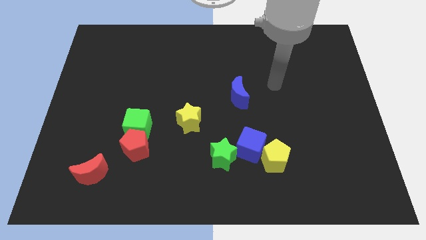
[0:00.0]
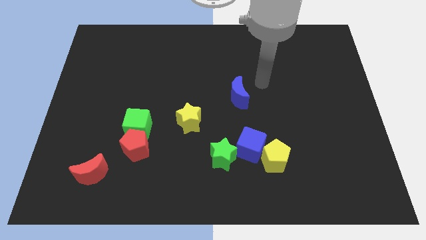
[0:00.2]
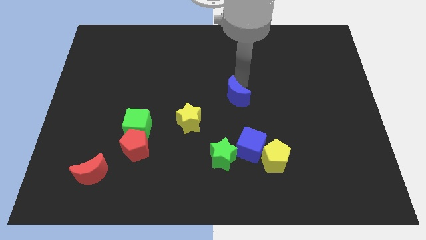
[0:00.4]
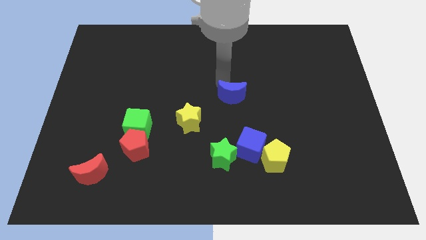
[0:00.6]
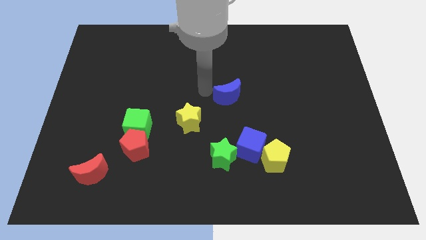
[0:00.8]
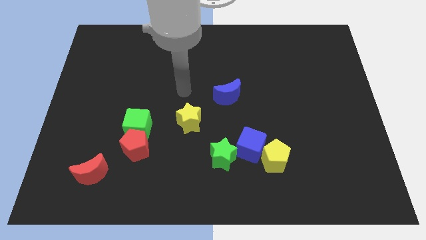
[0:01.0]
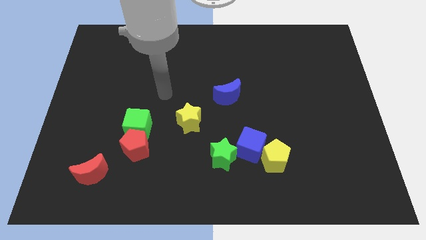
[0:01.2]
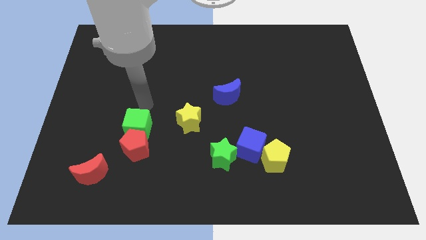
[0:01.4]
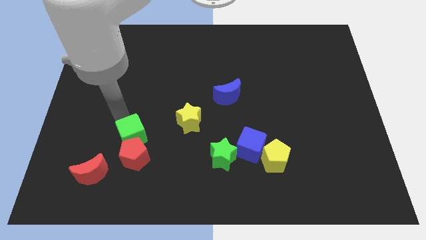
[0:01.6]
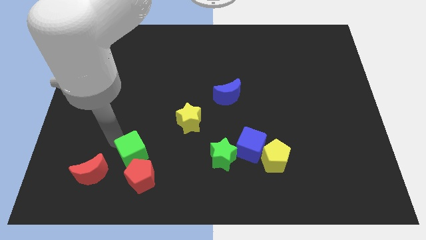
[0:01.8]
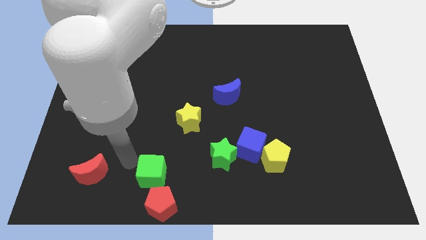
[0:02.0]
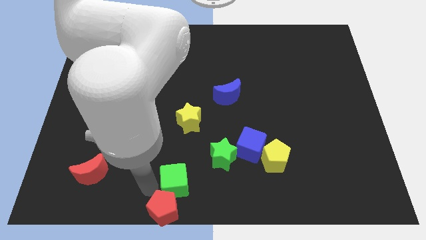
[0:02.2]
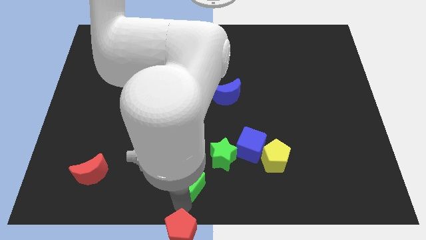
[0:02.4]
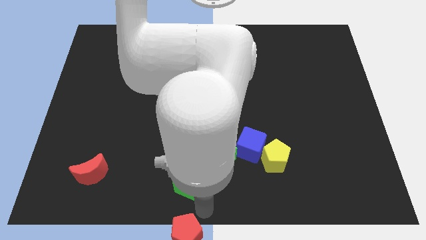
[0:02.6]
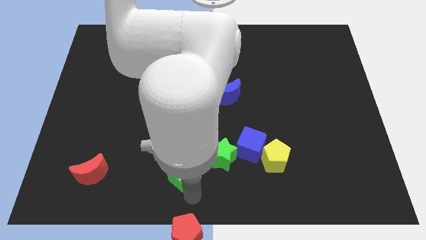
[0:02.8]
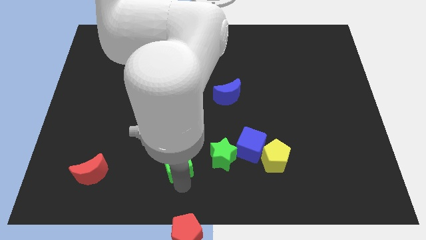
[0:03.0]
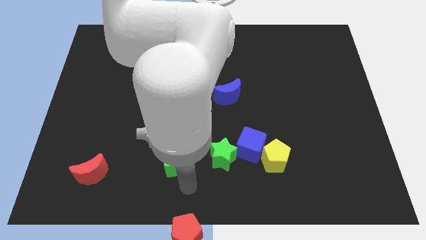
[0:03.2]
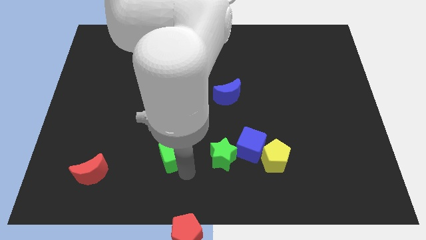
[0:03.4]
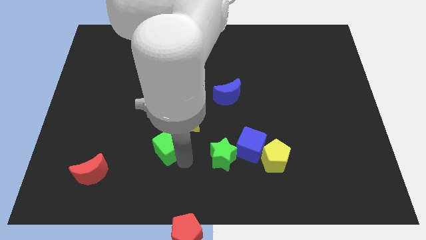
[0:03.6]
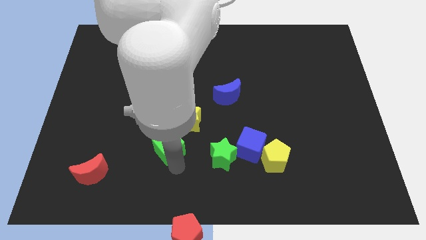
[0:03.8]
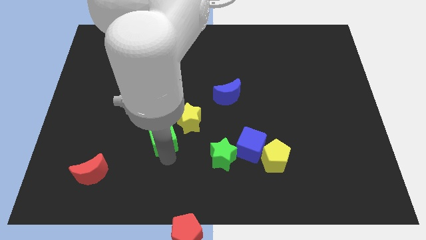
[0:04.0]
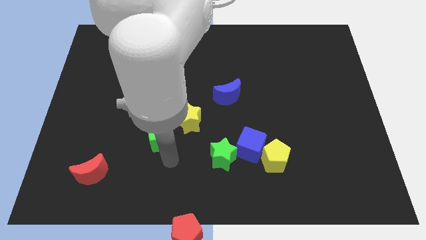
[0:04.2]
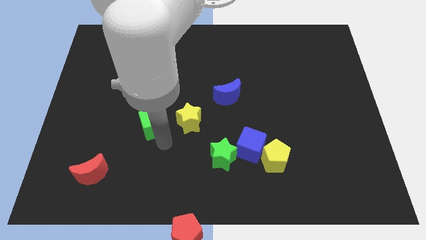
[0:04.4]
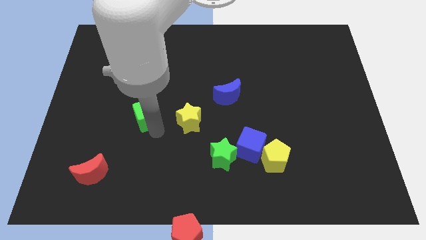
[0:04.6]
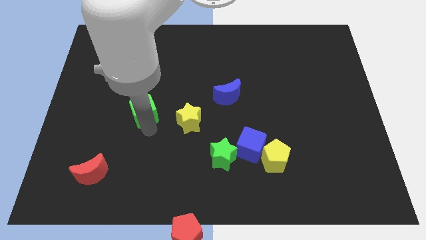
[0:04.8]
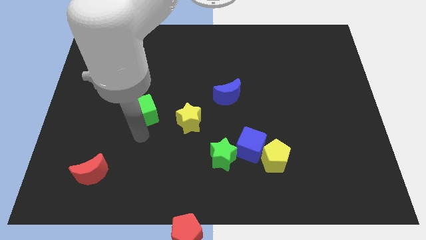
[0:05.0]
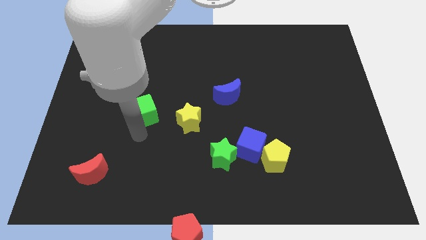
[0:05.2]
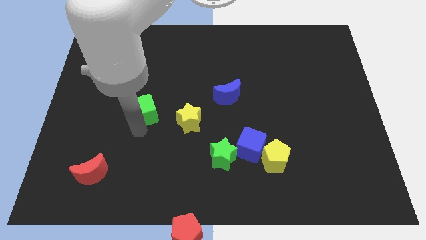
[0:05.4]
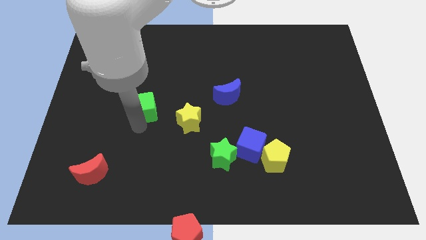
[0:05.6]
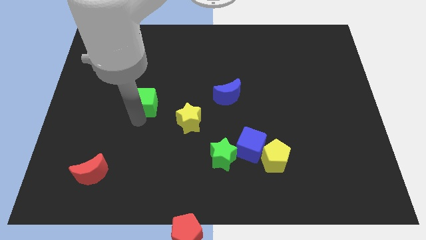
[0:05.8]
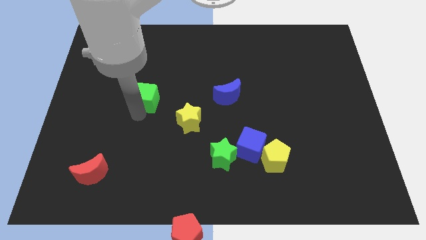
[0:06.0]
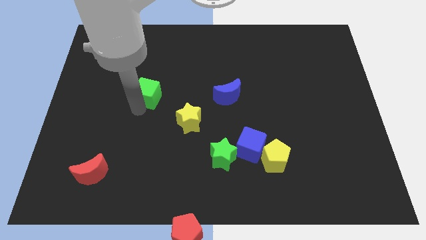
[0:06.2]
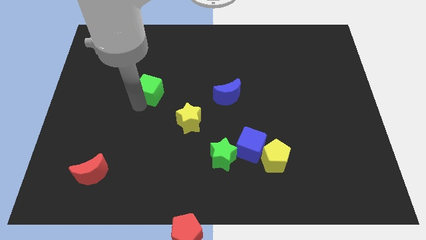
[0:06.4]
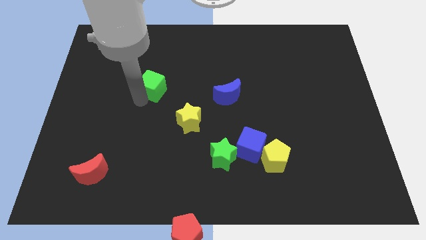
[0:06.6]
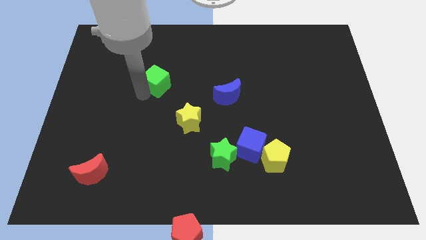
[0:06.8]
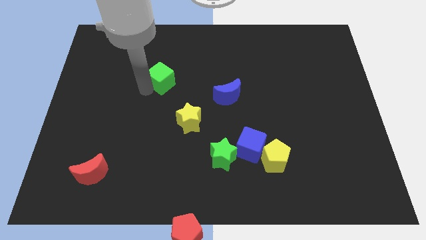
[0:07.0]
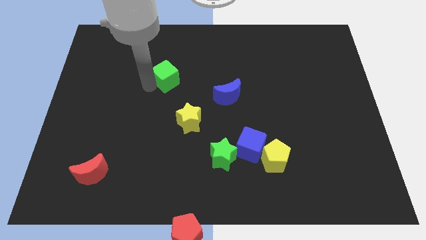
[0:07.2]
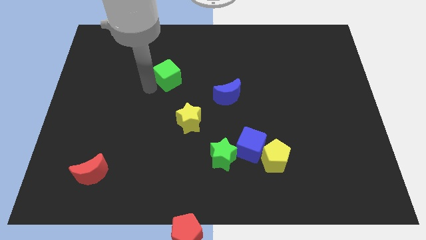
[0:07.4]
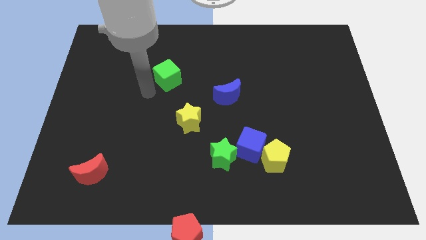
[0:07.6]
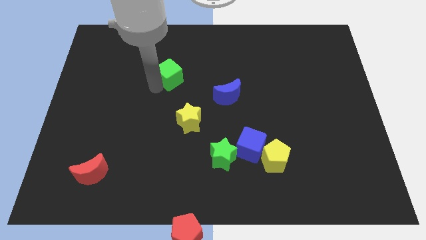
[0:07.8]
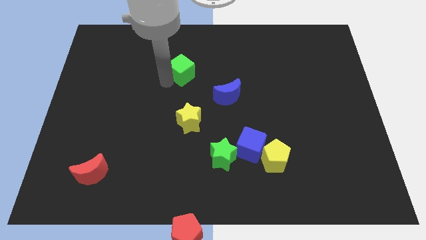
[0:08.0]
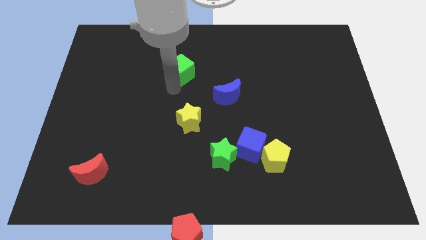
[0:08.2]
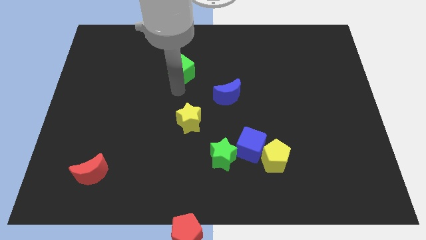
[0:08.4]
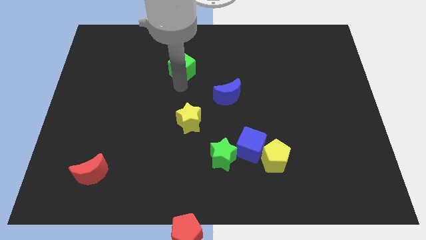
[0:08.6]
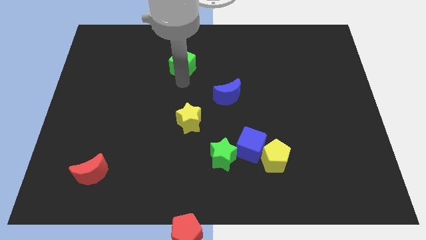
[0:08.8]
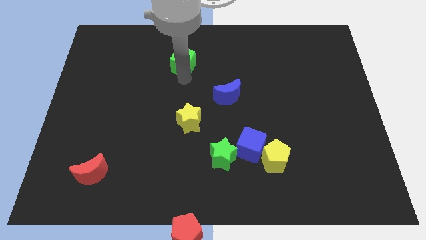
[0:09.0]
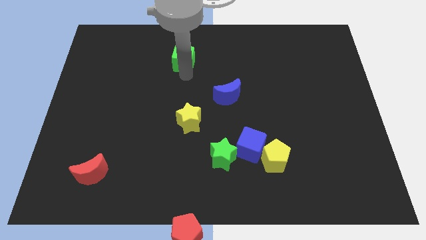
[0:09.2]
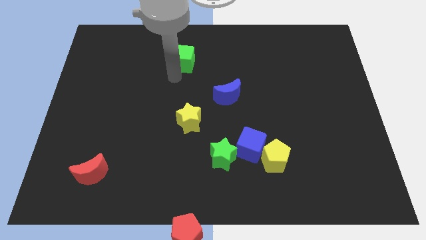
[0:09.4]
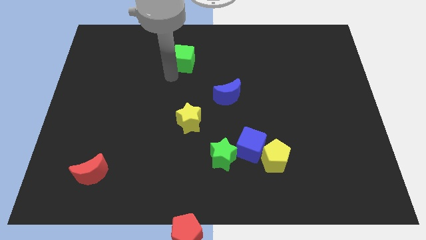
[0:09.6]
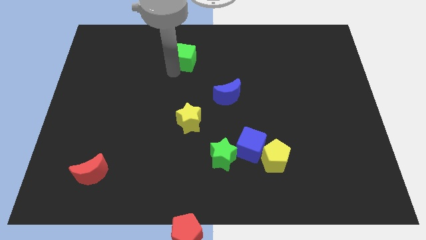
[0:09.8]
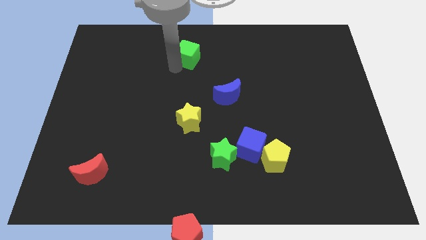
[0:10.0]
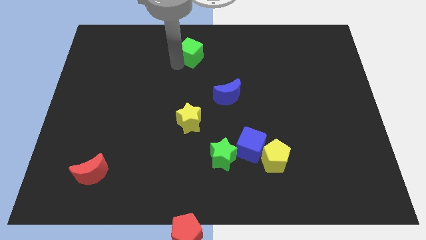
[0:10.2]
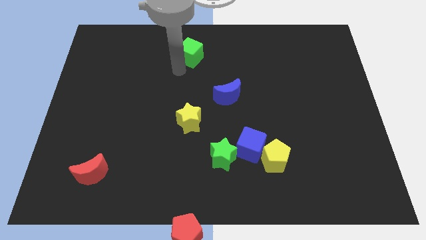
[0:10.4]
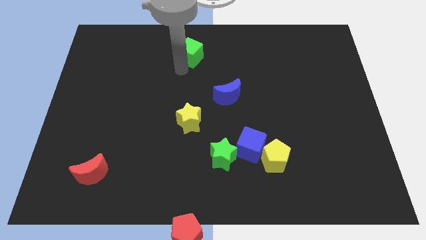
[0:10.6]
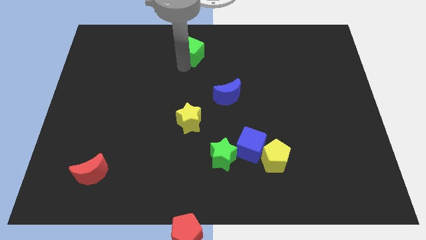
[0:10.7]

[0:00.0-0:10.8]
move the green cube to the top side

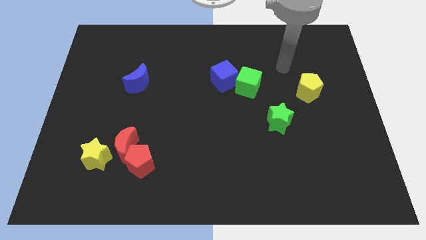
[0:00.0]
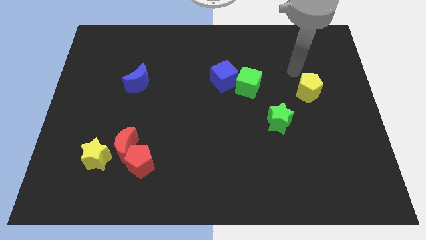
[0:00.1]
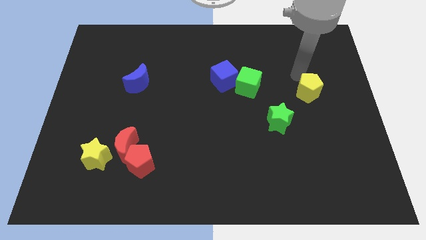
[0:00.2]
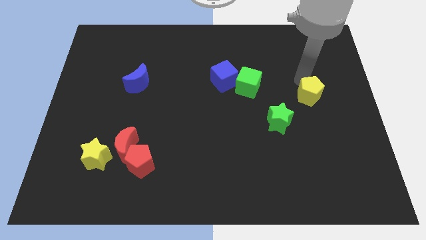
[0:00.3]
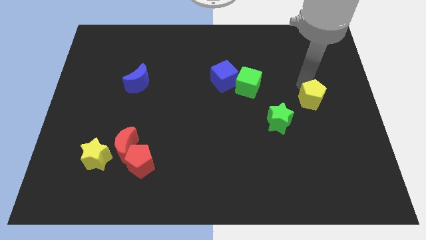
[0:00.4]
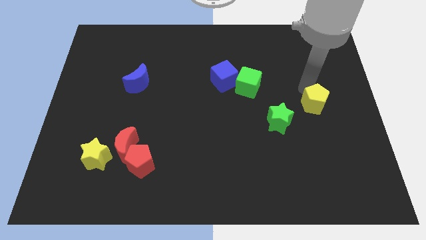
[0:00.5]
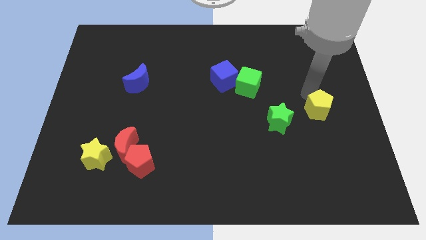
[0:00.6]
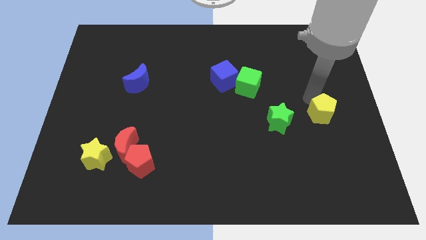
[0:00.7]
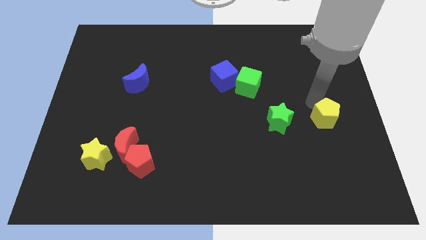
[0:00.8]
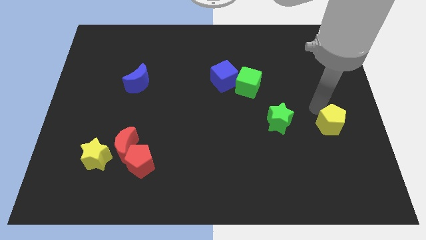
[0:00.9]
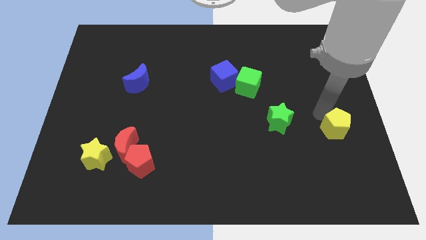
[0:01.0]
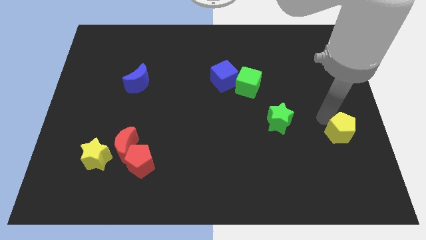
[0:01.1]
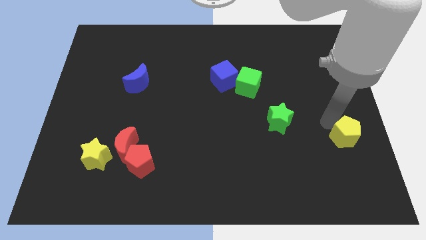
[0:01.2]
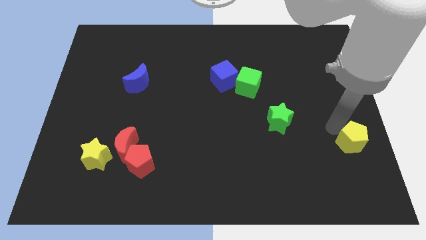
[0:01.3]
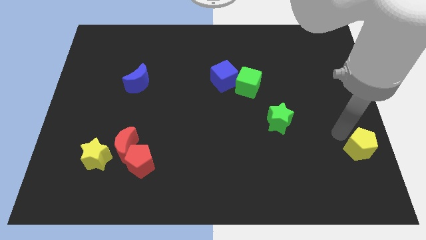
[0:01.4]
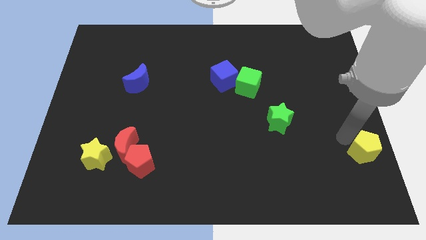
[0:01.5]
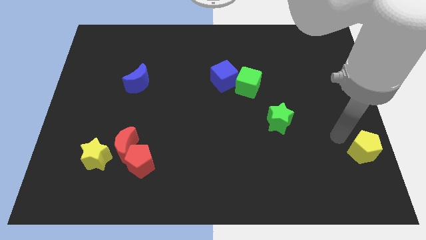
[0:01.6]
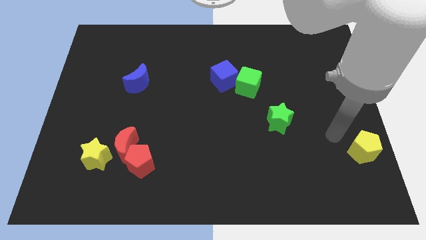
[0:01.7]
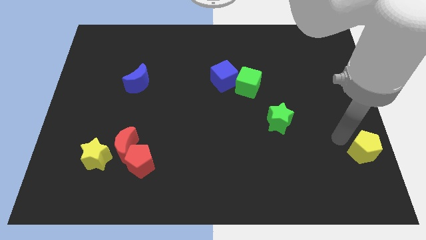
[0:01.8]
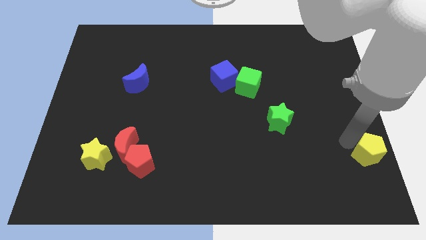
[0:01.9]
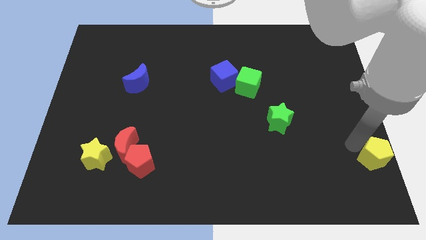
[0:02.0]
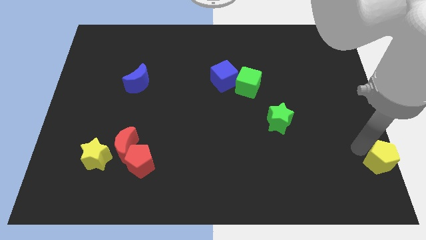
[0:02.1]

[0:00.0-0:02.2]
push the yellow pentagon to the bottom right
